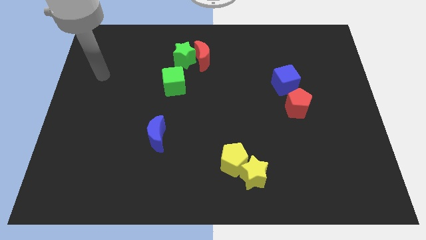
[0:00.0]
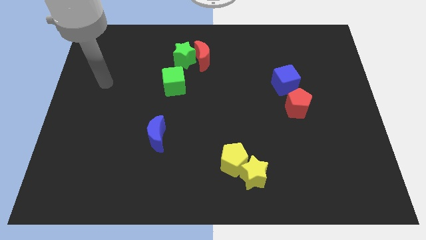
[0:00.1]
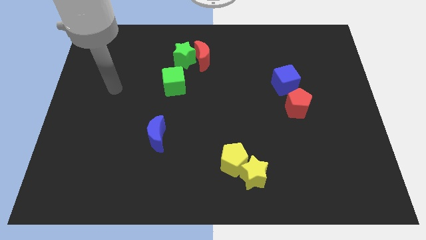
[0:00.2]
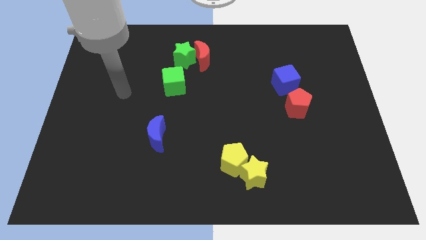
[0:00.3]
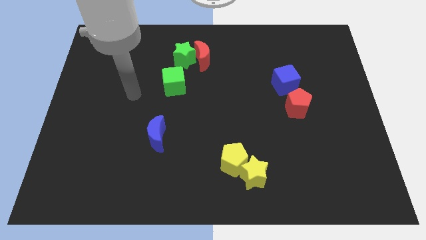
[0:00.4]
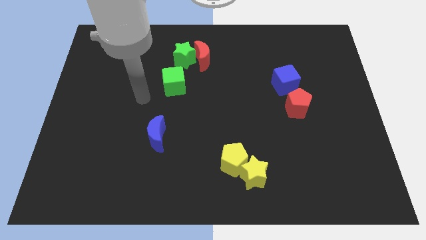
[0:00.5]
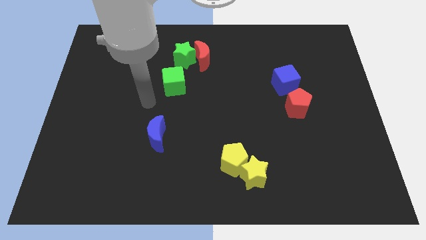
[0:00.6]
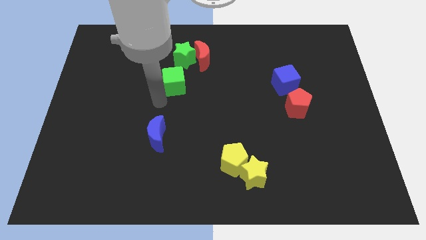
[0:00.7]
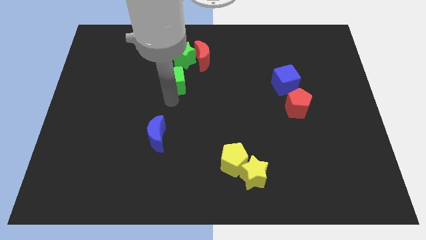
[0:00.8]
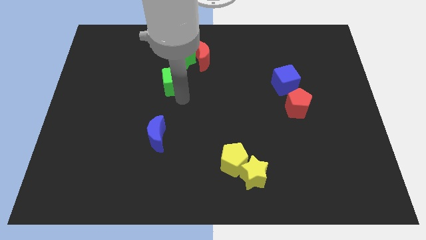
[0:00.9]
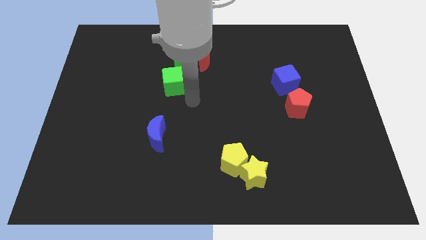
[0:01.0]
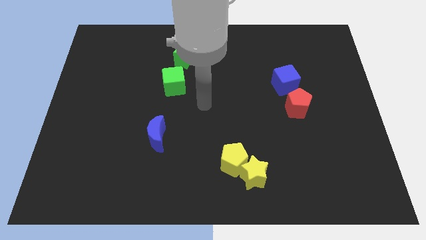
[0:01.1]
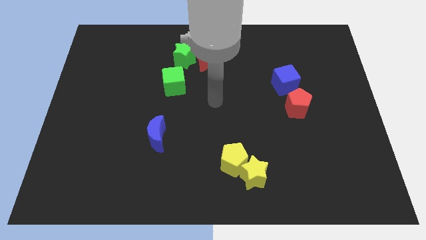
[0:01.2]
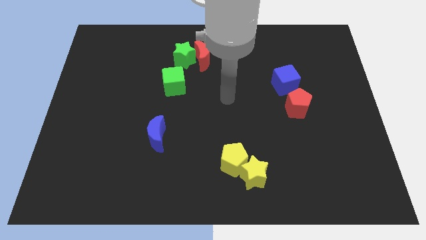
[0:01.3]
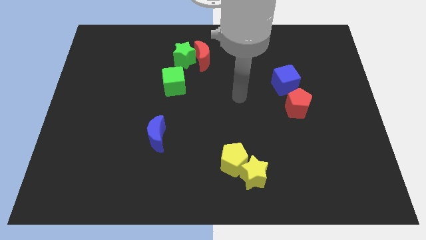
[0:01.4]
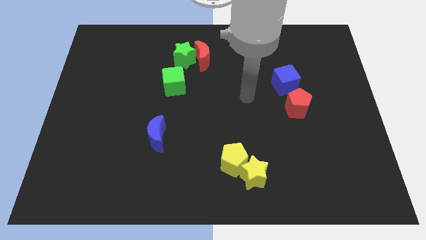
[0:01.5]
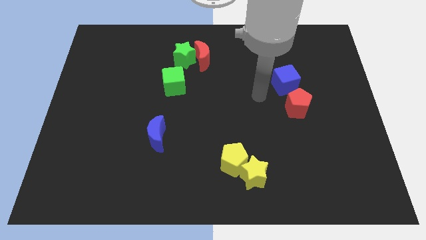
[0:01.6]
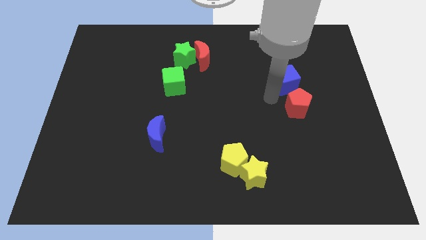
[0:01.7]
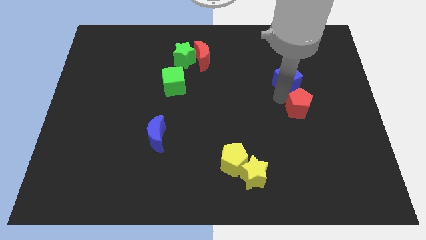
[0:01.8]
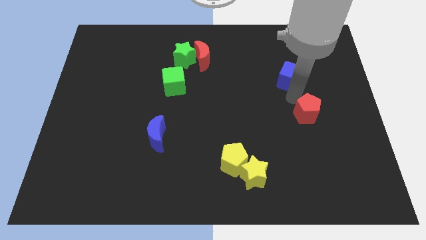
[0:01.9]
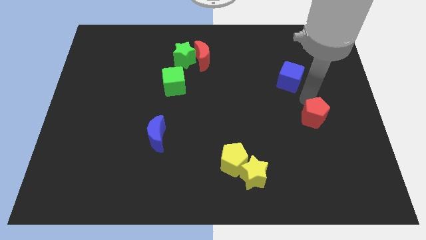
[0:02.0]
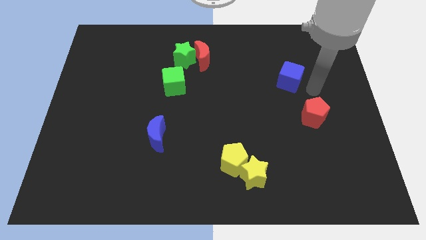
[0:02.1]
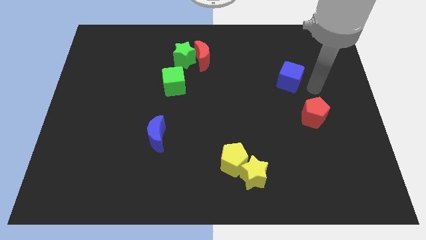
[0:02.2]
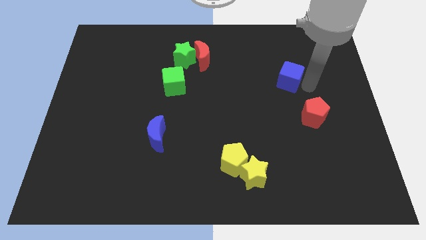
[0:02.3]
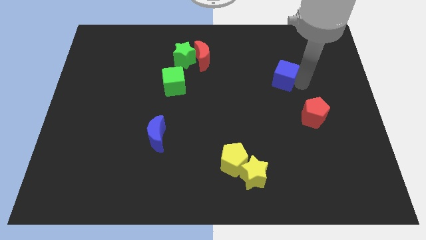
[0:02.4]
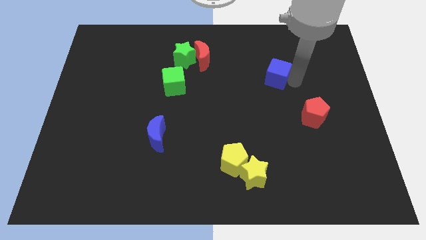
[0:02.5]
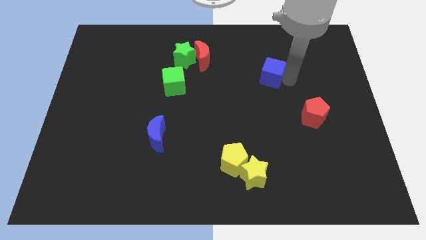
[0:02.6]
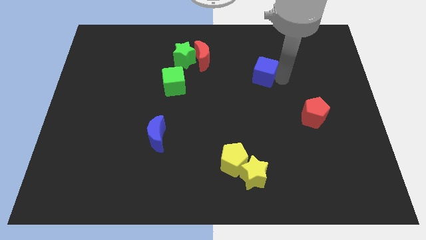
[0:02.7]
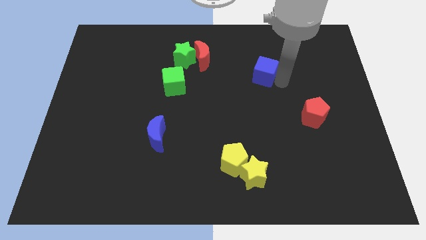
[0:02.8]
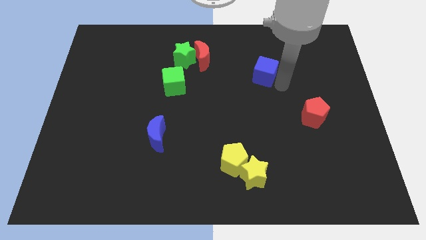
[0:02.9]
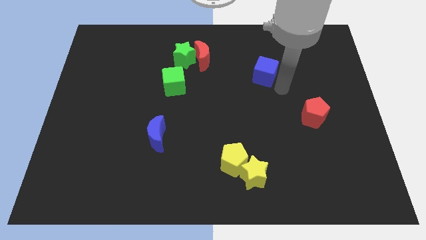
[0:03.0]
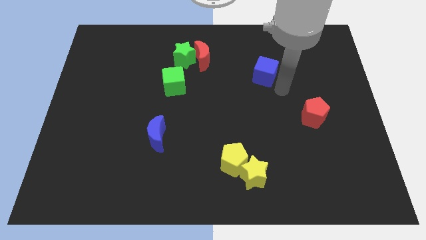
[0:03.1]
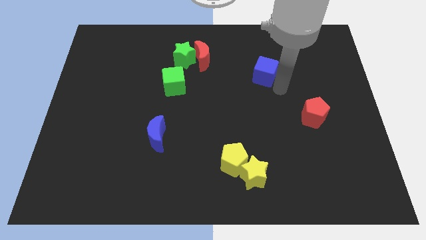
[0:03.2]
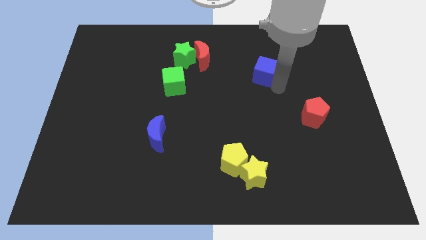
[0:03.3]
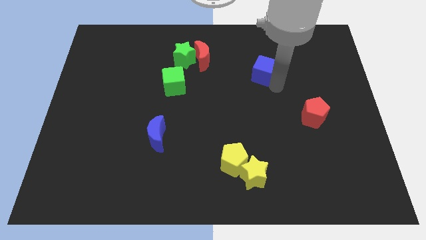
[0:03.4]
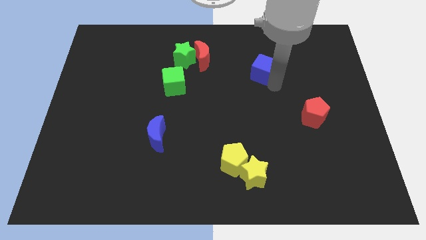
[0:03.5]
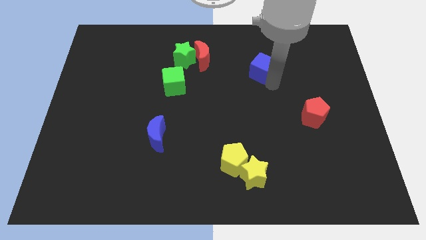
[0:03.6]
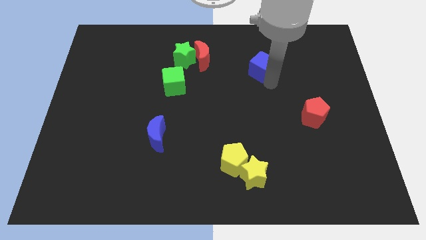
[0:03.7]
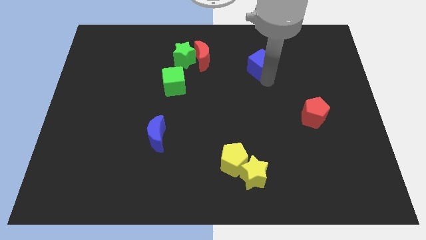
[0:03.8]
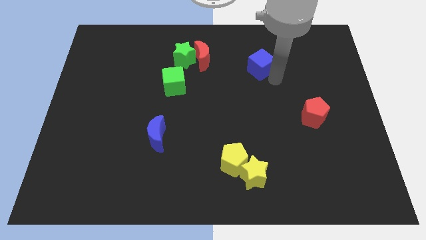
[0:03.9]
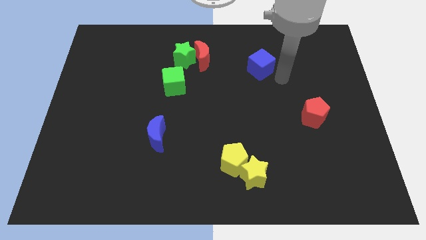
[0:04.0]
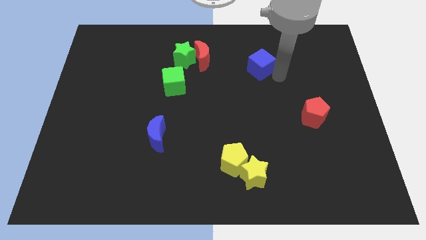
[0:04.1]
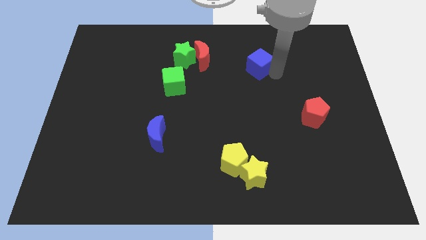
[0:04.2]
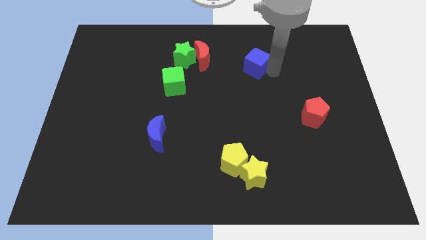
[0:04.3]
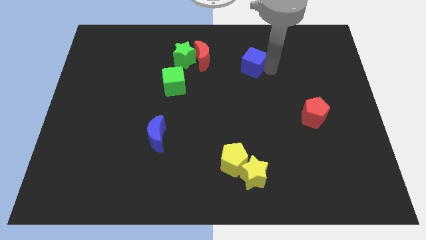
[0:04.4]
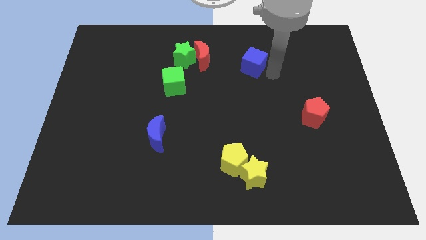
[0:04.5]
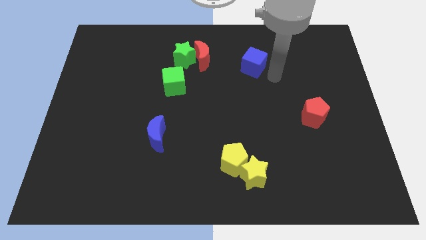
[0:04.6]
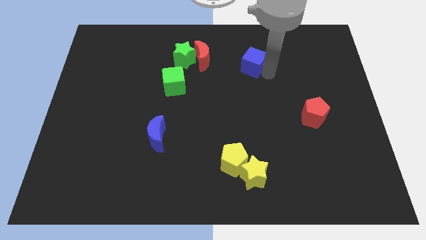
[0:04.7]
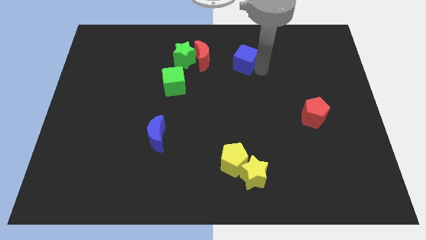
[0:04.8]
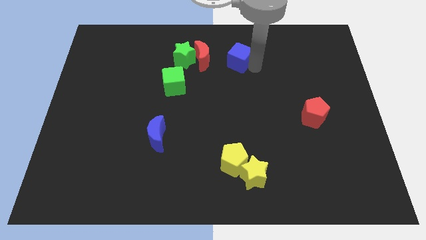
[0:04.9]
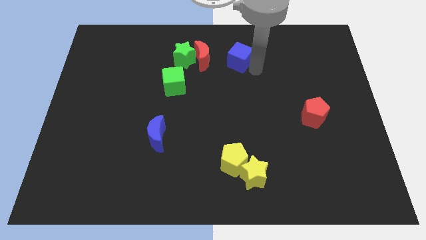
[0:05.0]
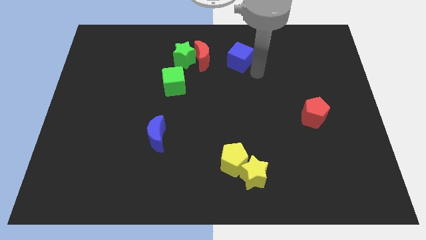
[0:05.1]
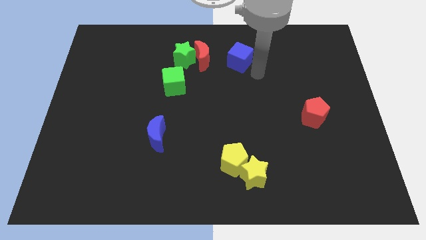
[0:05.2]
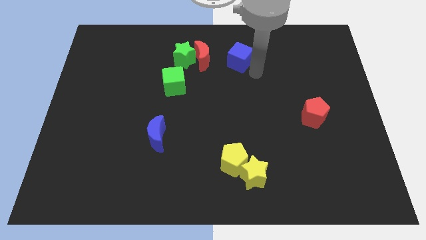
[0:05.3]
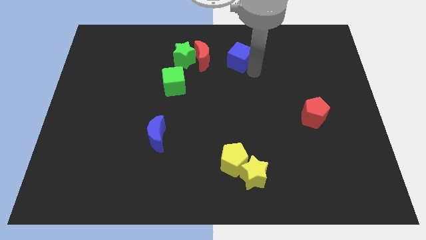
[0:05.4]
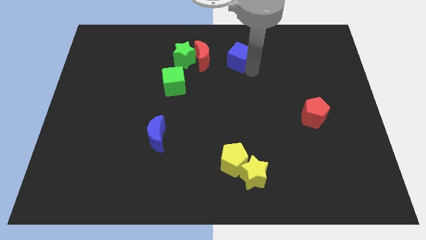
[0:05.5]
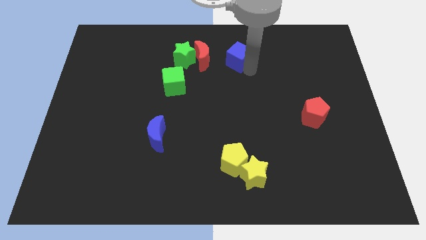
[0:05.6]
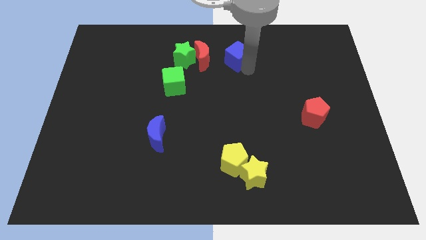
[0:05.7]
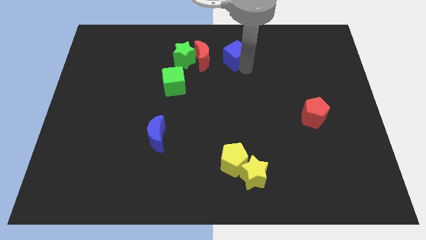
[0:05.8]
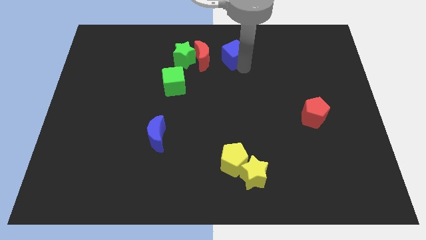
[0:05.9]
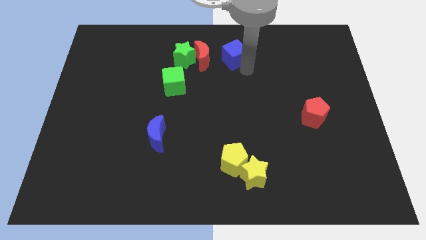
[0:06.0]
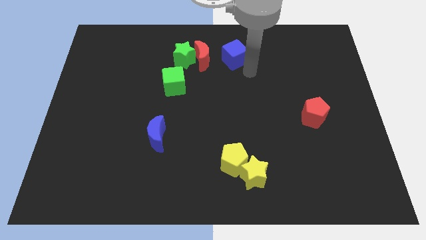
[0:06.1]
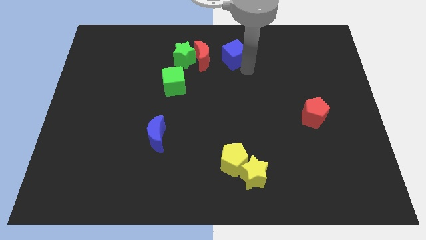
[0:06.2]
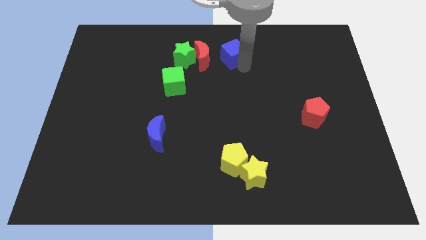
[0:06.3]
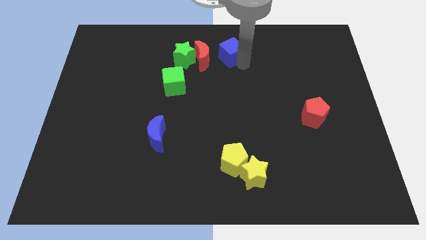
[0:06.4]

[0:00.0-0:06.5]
push the blue cube to the towards your base
